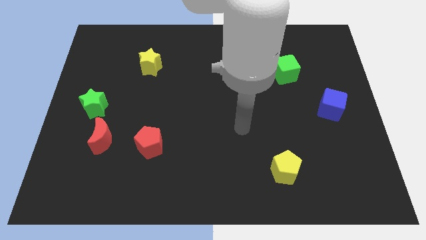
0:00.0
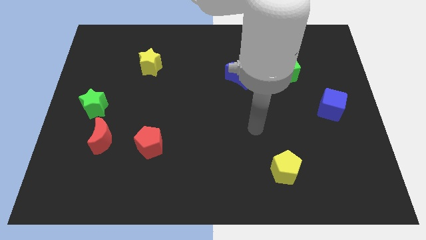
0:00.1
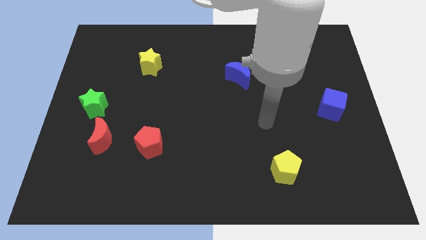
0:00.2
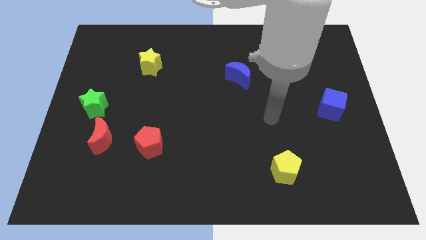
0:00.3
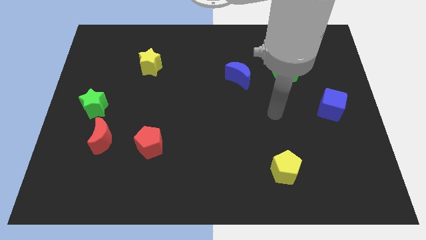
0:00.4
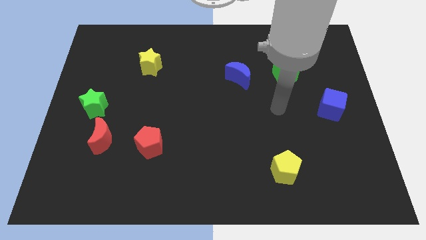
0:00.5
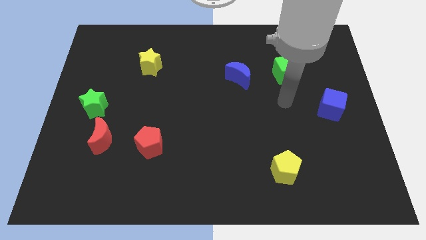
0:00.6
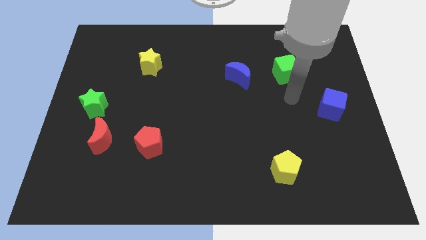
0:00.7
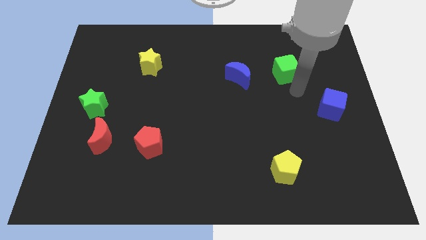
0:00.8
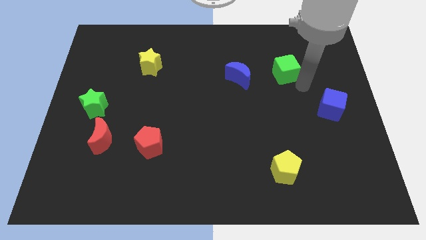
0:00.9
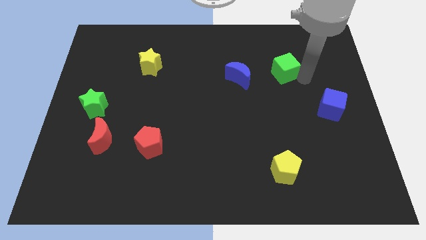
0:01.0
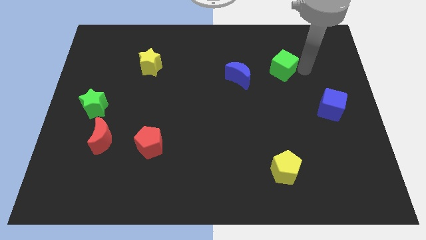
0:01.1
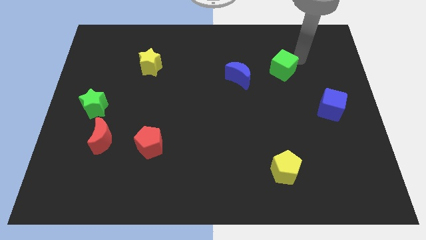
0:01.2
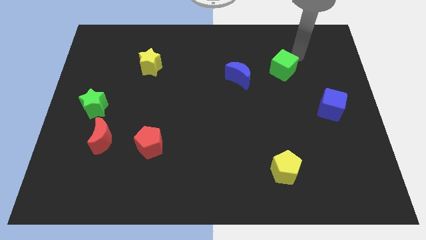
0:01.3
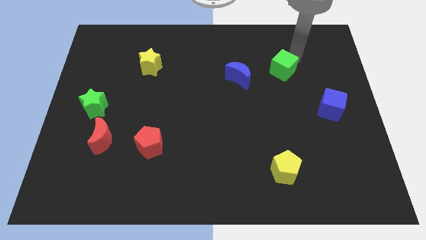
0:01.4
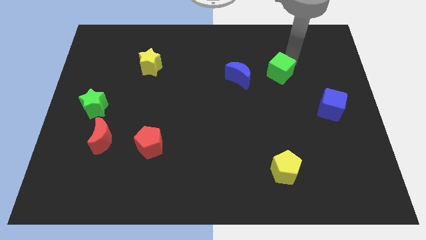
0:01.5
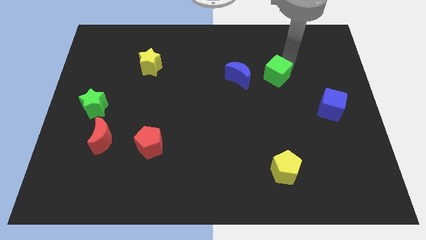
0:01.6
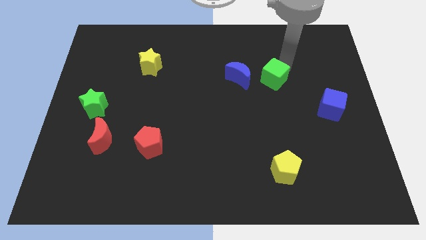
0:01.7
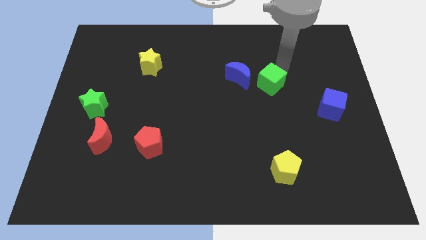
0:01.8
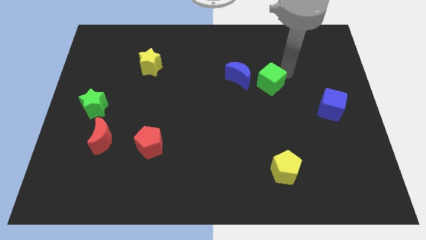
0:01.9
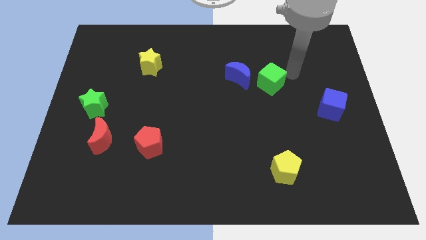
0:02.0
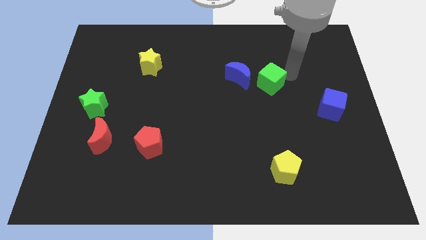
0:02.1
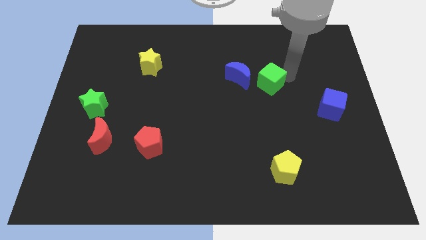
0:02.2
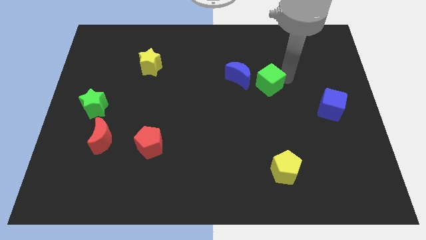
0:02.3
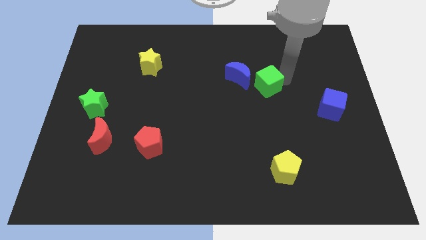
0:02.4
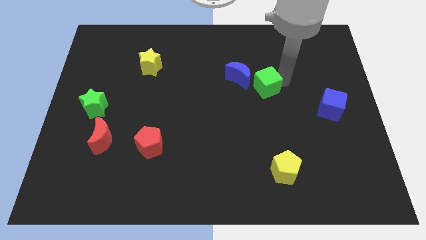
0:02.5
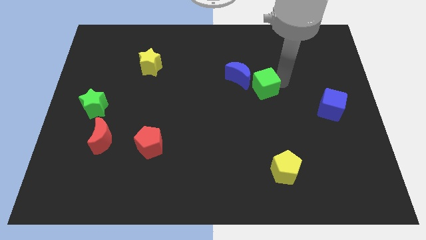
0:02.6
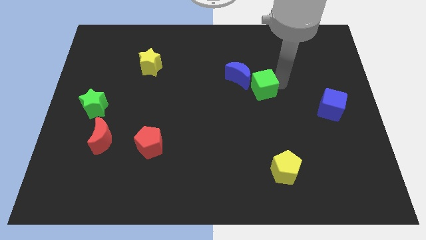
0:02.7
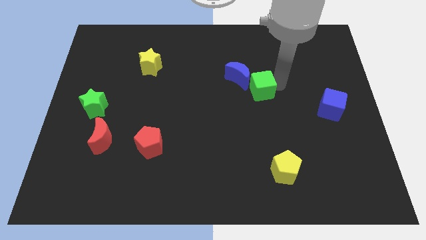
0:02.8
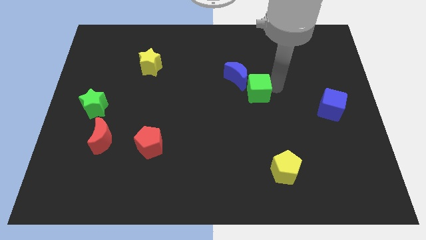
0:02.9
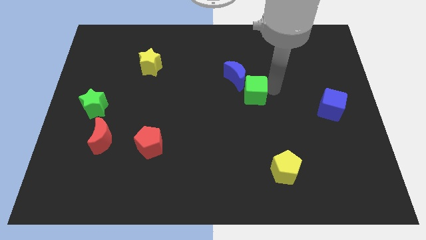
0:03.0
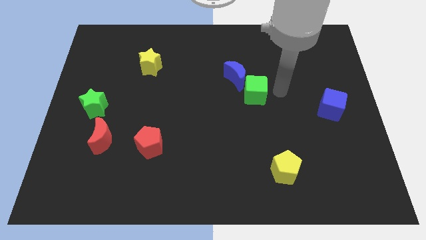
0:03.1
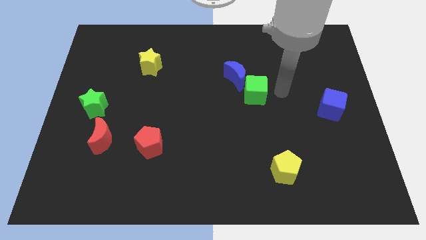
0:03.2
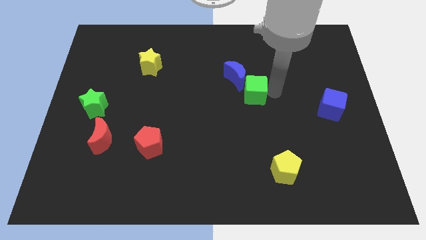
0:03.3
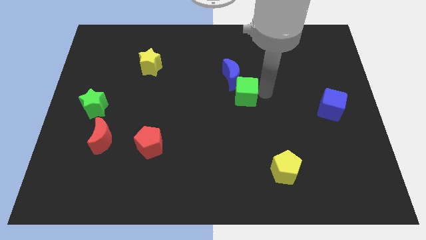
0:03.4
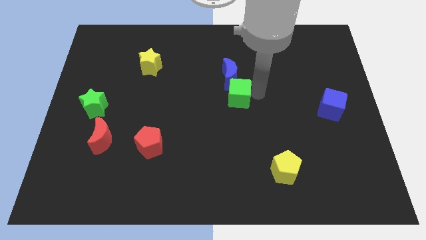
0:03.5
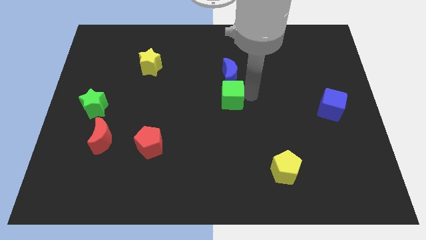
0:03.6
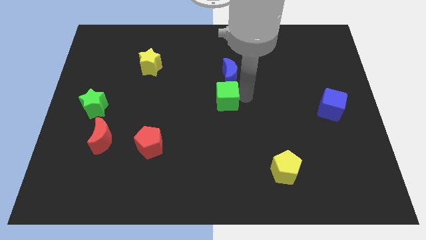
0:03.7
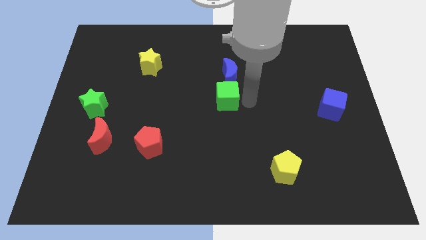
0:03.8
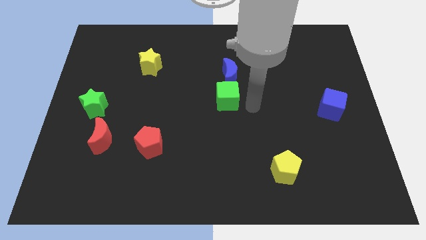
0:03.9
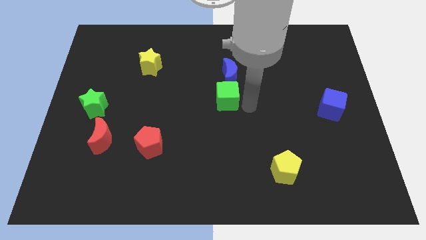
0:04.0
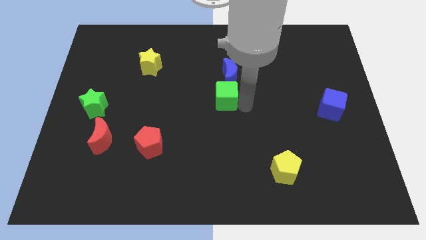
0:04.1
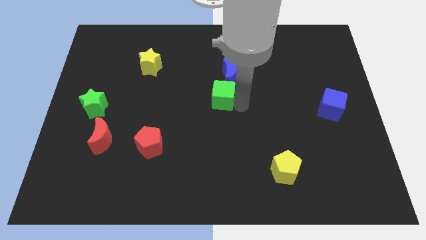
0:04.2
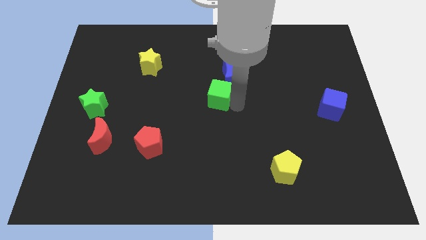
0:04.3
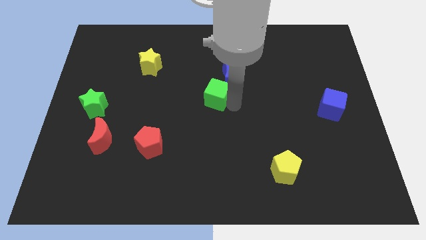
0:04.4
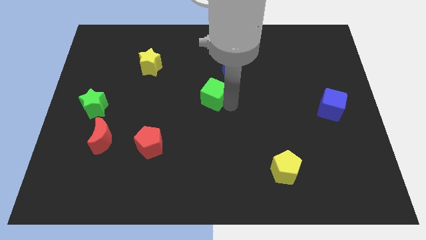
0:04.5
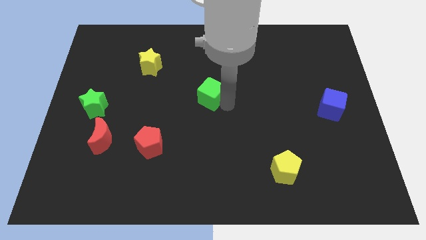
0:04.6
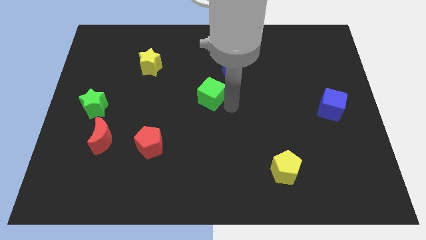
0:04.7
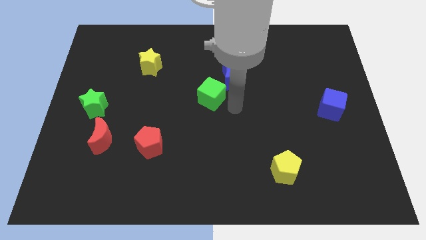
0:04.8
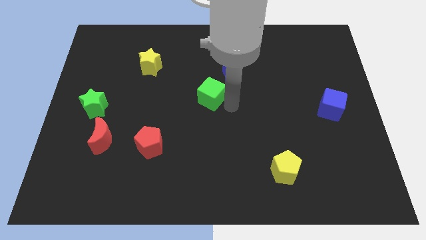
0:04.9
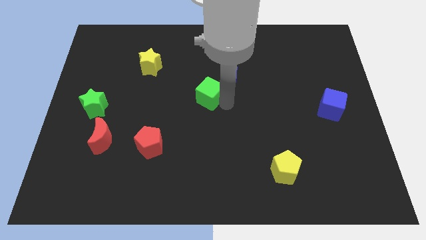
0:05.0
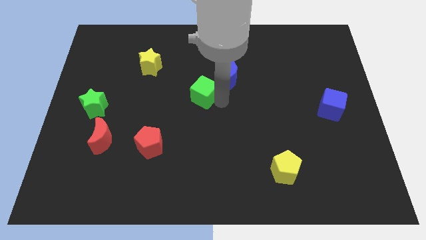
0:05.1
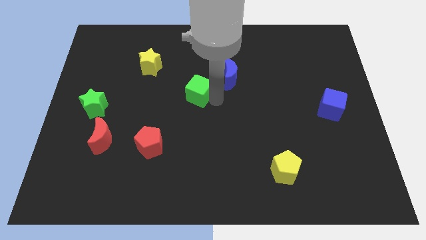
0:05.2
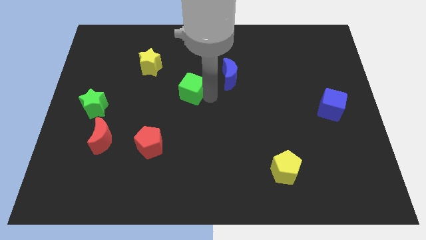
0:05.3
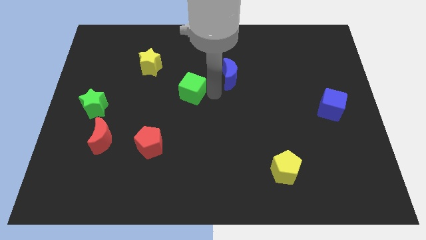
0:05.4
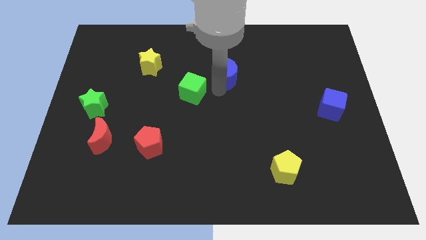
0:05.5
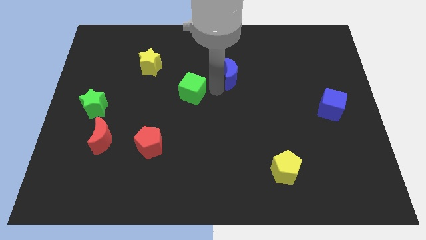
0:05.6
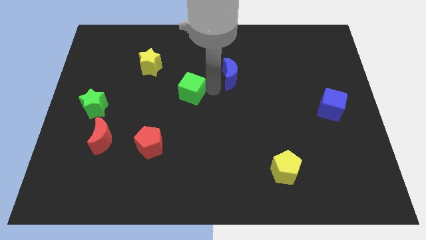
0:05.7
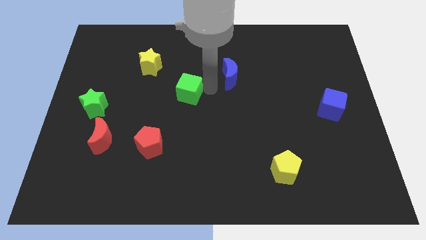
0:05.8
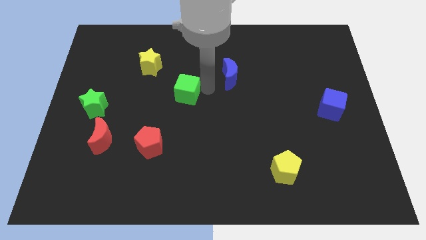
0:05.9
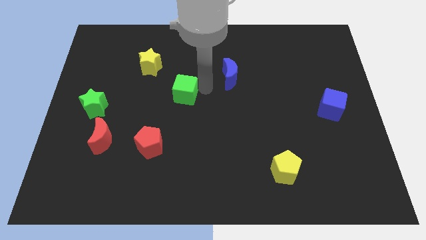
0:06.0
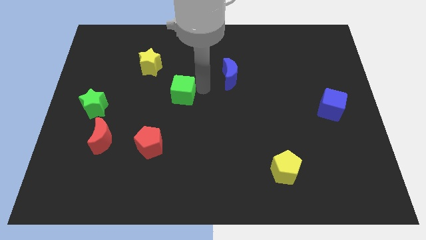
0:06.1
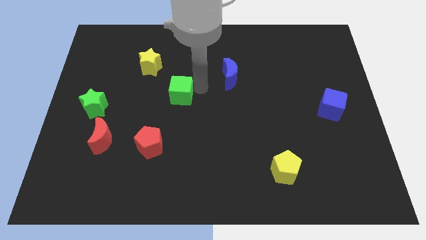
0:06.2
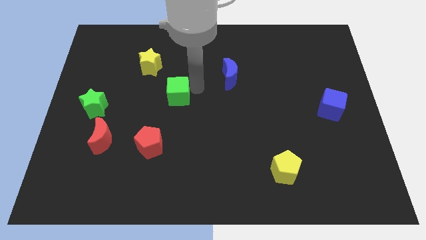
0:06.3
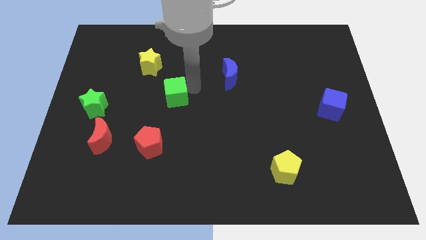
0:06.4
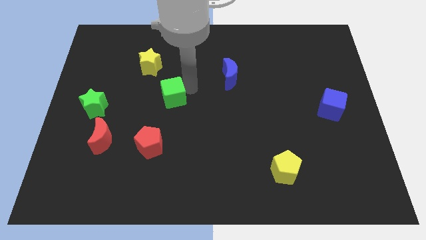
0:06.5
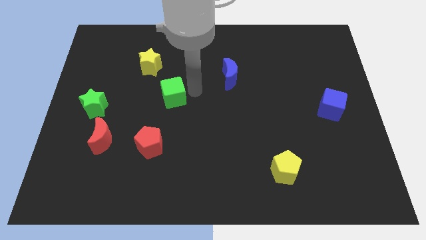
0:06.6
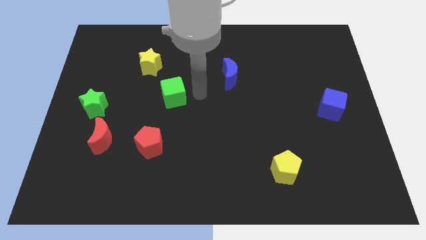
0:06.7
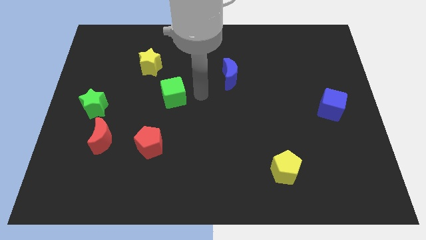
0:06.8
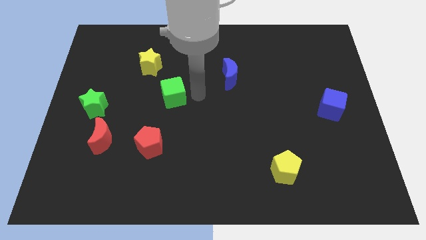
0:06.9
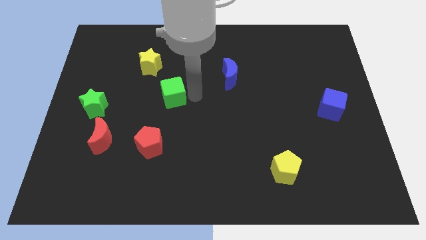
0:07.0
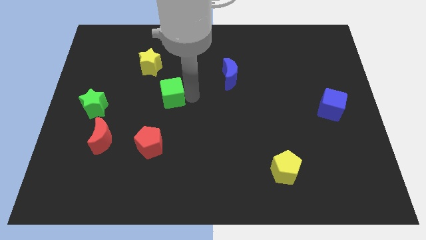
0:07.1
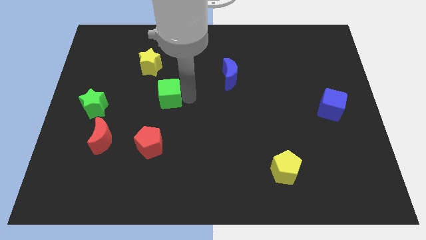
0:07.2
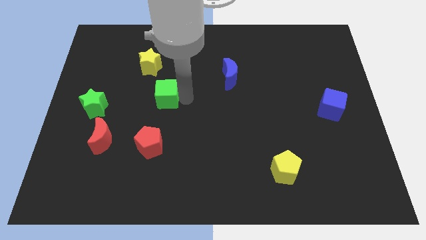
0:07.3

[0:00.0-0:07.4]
push the green cube to the bottom side of the yellow star
